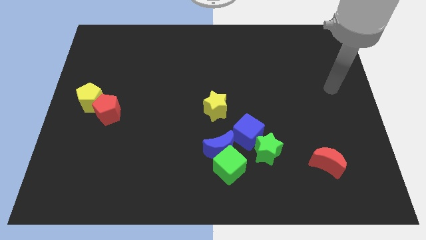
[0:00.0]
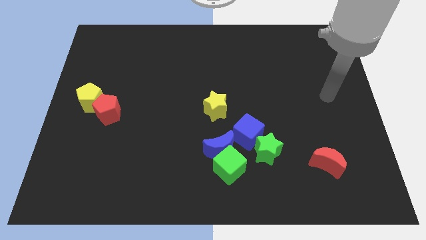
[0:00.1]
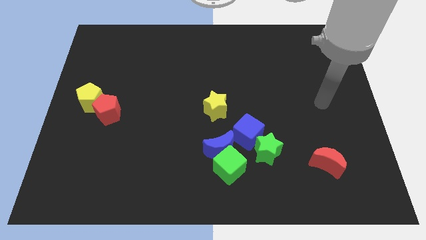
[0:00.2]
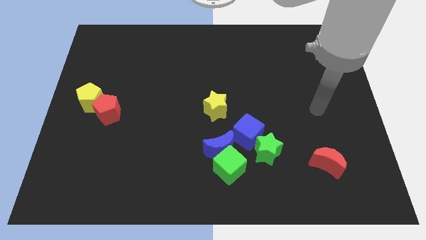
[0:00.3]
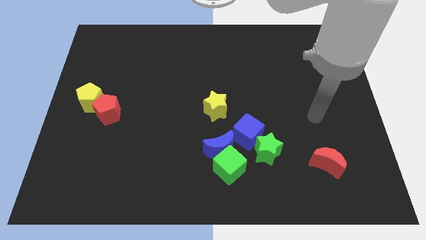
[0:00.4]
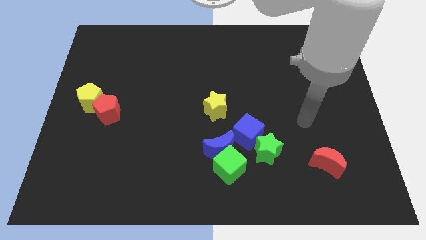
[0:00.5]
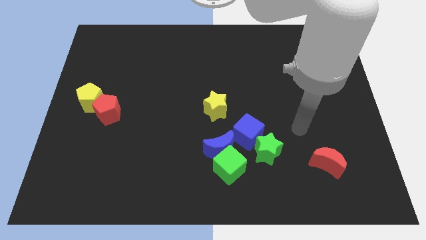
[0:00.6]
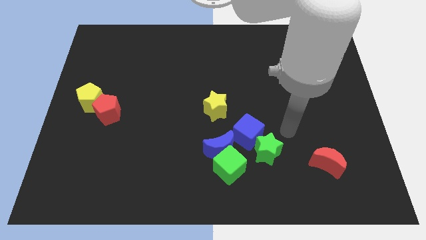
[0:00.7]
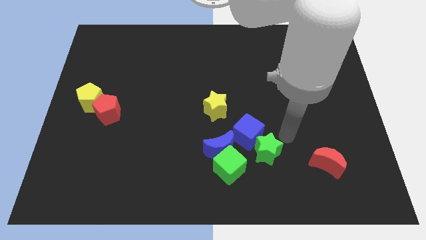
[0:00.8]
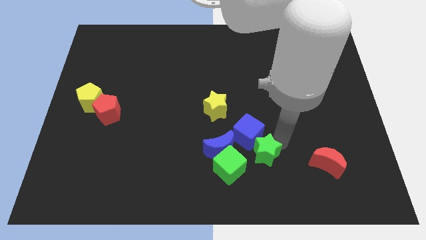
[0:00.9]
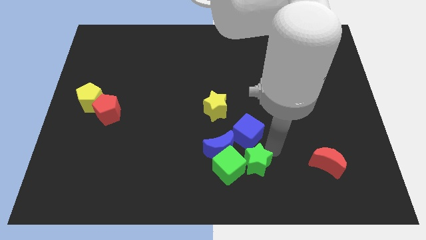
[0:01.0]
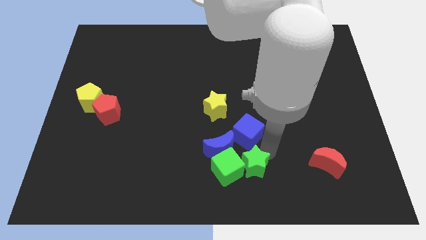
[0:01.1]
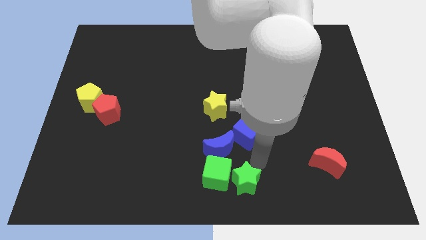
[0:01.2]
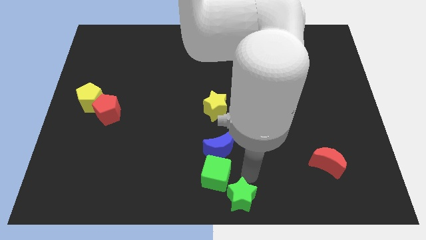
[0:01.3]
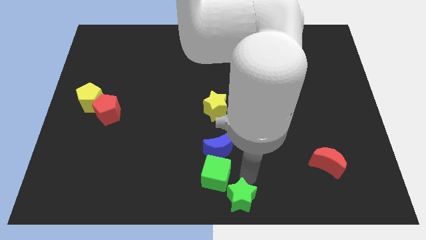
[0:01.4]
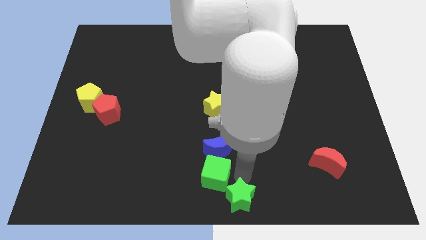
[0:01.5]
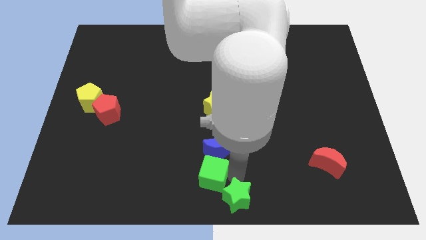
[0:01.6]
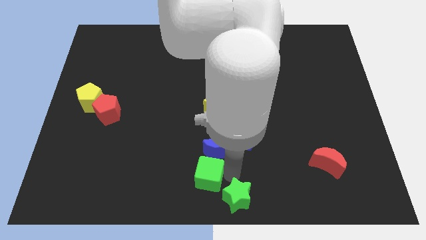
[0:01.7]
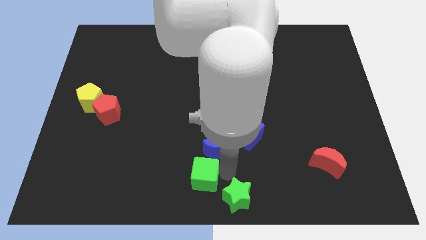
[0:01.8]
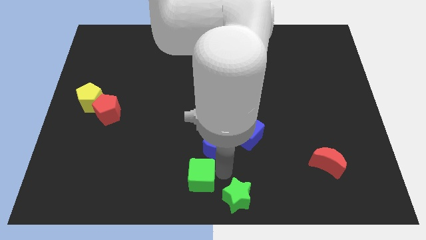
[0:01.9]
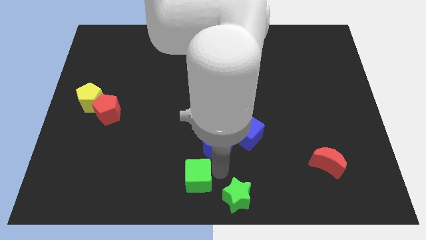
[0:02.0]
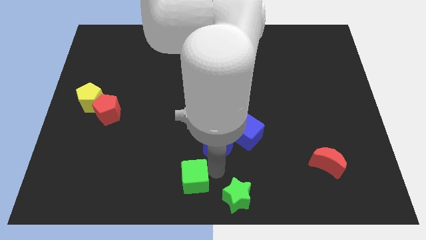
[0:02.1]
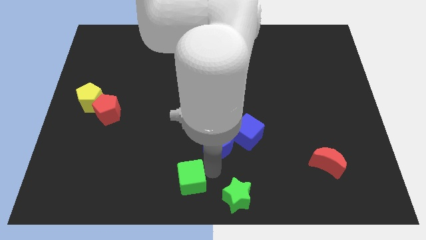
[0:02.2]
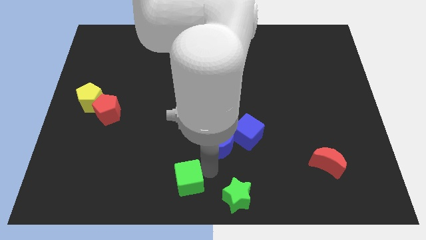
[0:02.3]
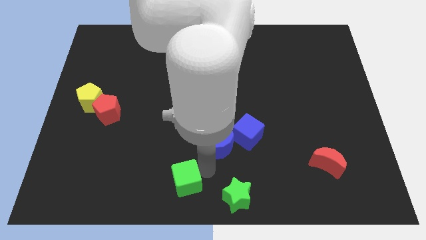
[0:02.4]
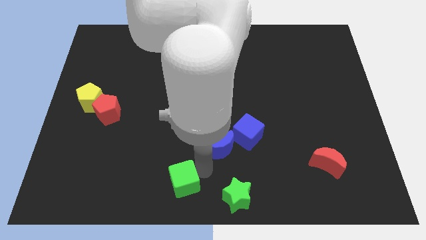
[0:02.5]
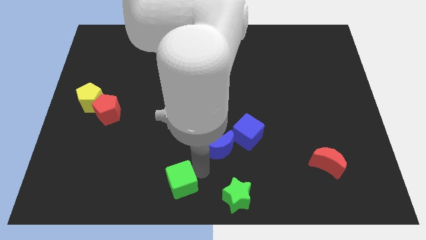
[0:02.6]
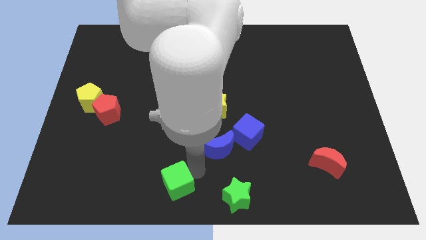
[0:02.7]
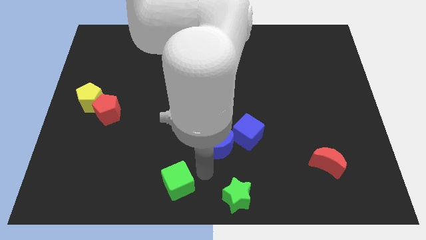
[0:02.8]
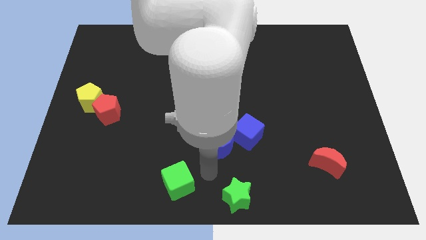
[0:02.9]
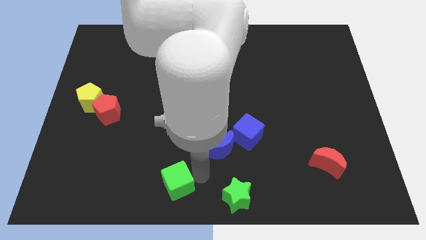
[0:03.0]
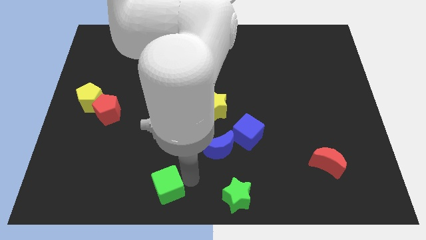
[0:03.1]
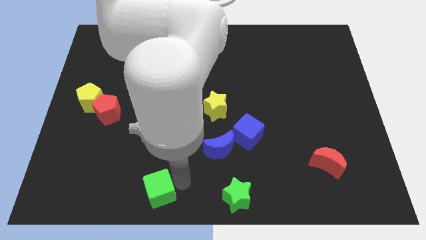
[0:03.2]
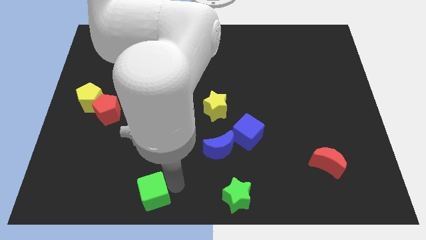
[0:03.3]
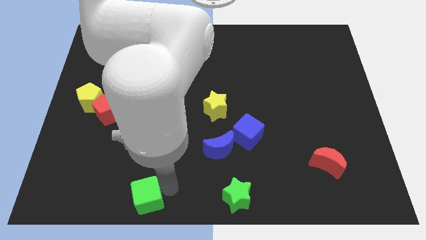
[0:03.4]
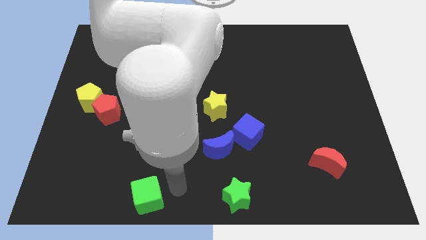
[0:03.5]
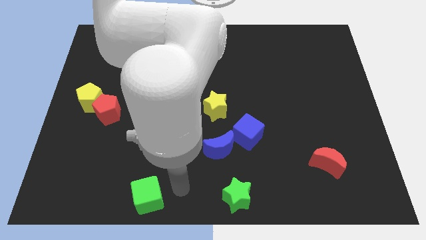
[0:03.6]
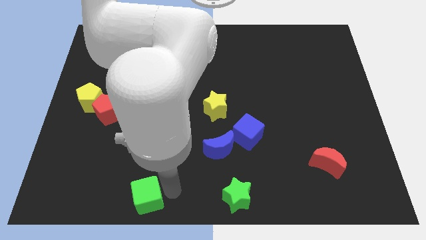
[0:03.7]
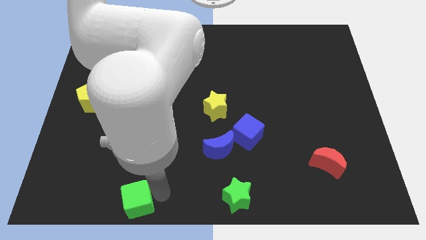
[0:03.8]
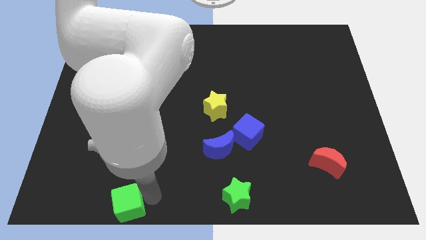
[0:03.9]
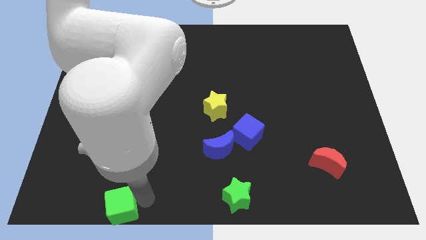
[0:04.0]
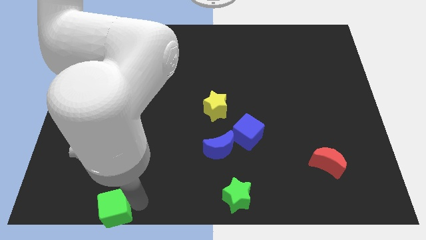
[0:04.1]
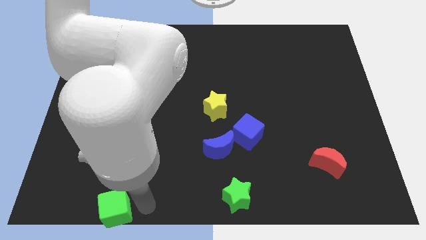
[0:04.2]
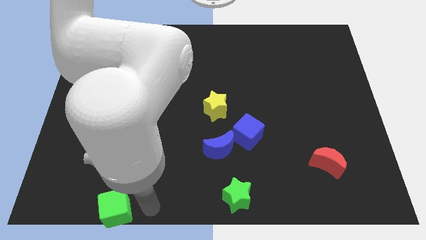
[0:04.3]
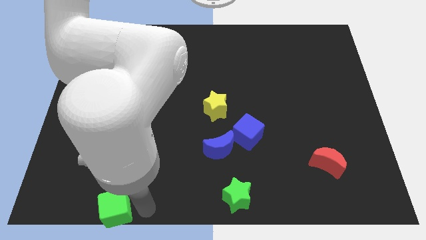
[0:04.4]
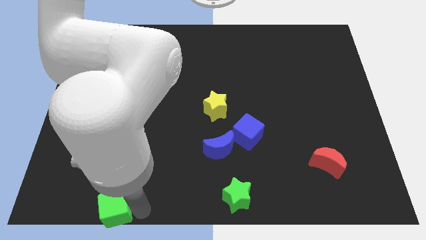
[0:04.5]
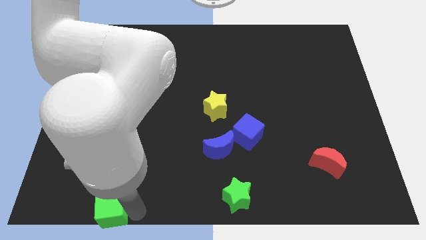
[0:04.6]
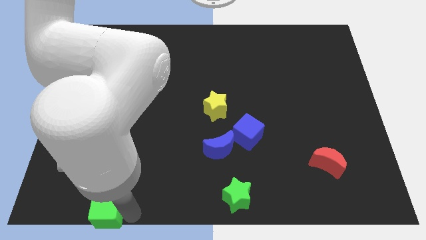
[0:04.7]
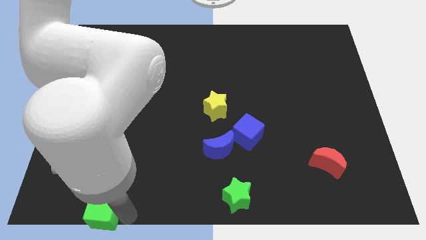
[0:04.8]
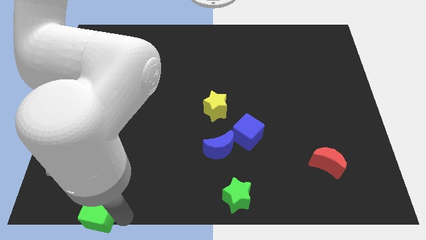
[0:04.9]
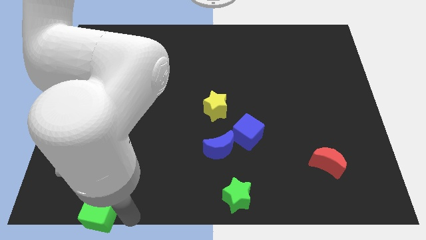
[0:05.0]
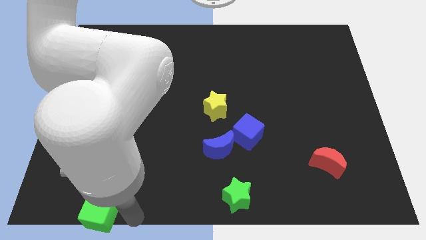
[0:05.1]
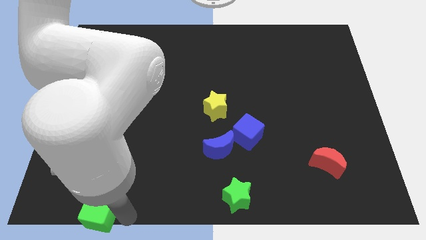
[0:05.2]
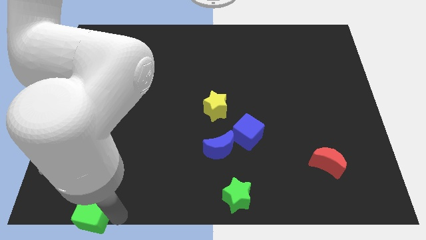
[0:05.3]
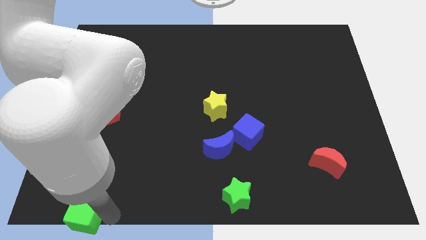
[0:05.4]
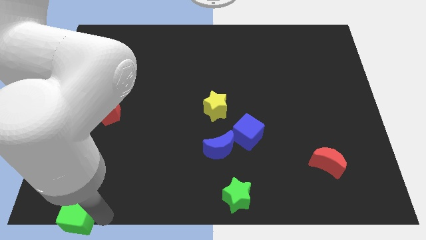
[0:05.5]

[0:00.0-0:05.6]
push the green cube to the bottom left corner

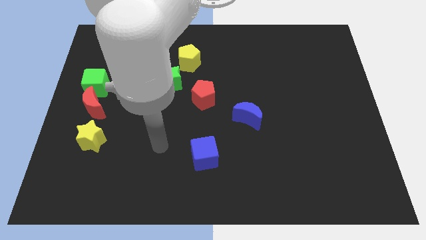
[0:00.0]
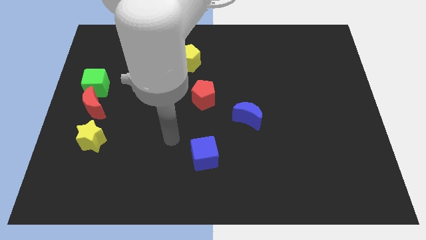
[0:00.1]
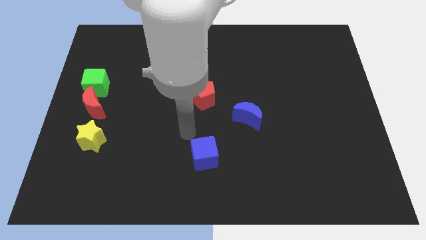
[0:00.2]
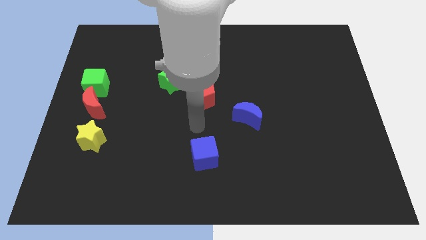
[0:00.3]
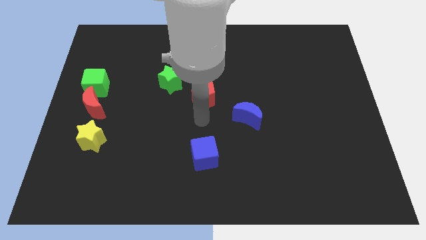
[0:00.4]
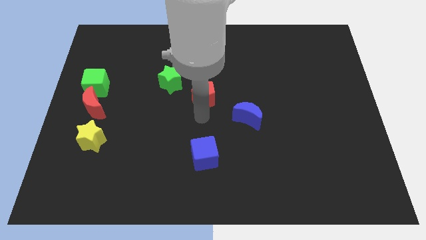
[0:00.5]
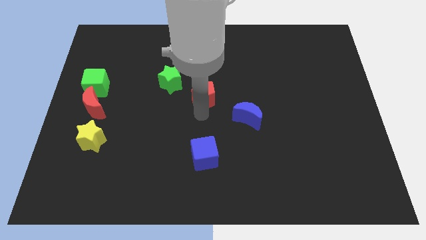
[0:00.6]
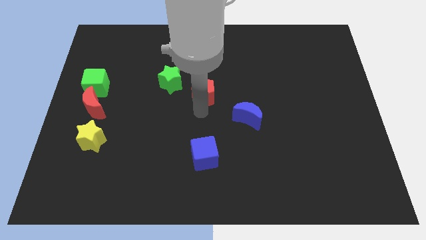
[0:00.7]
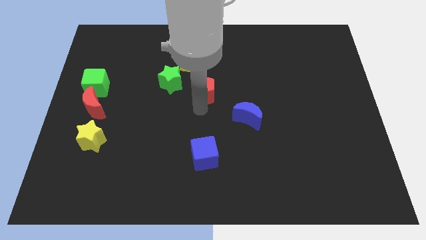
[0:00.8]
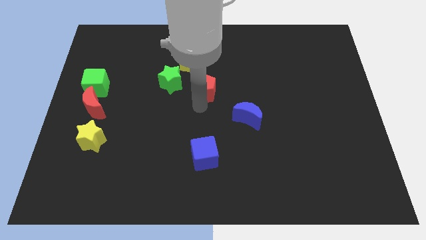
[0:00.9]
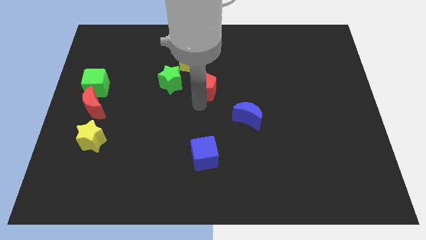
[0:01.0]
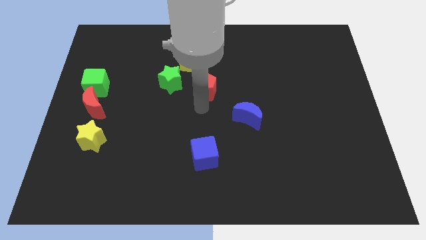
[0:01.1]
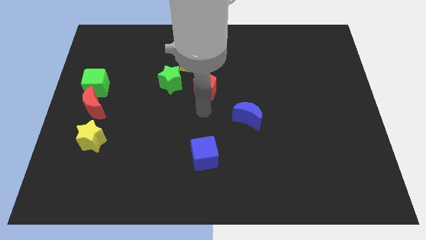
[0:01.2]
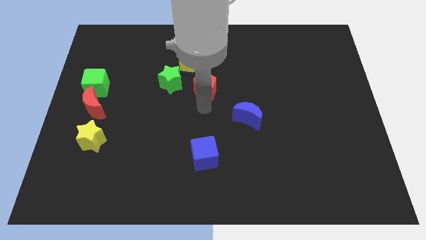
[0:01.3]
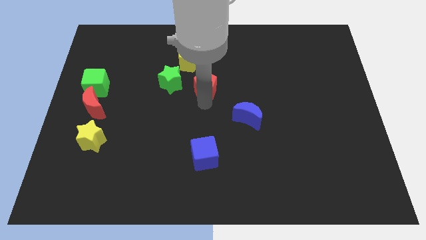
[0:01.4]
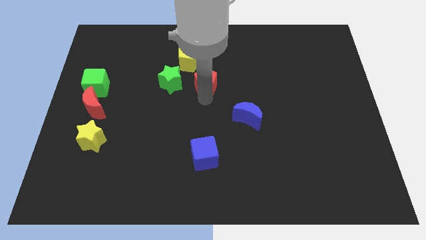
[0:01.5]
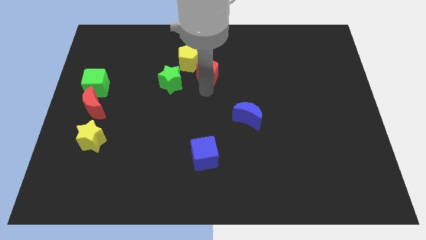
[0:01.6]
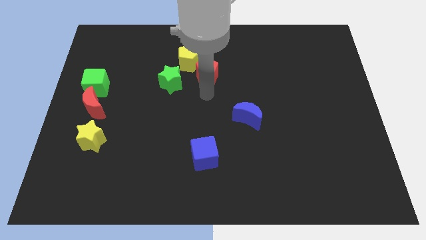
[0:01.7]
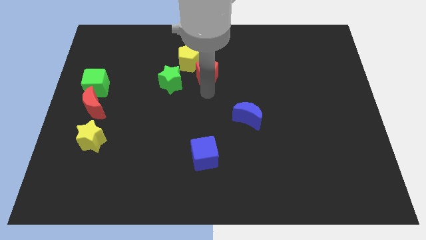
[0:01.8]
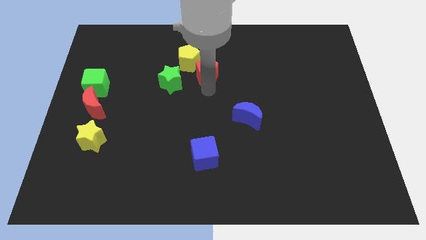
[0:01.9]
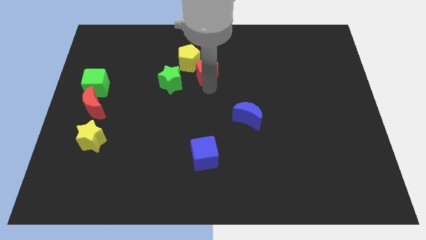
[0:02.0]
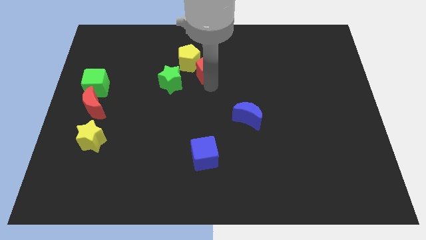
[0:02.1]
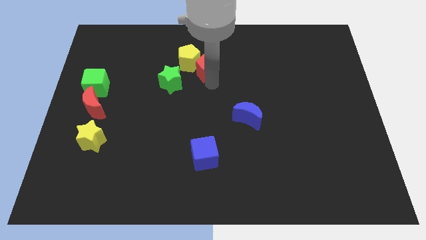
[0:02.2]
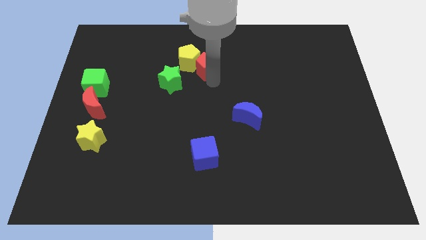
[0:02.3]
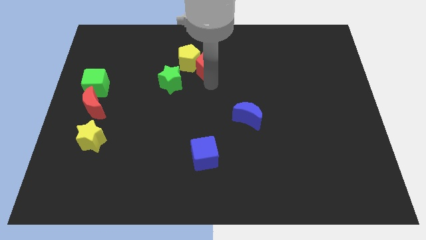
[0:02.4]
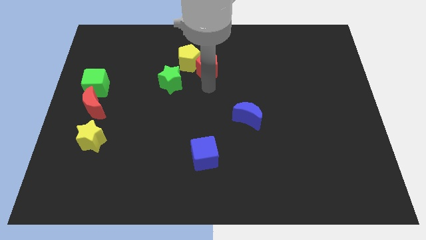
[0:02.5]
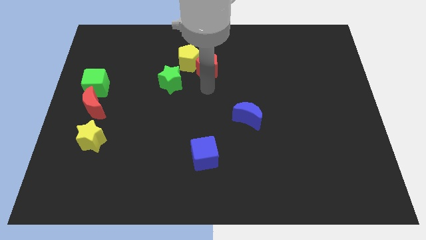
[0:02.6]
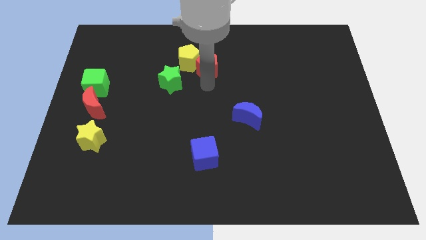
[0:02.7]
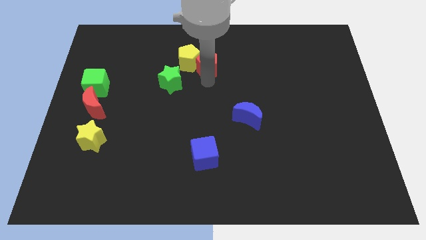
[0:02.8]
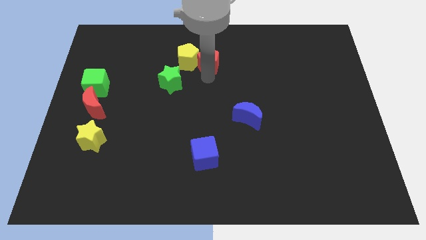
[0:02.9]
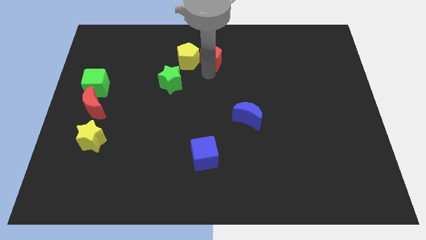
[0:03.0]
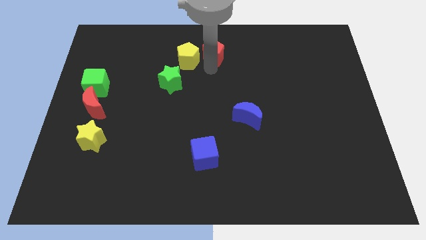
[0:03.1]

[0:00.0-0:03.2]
push the red pentagon to the top side
